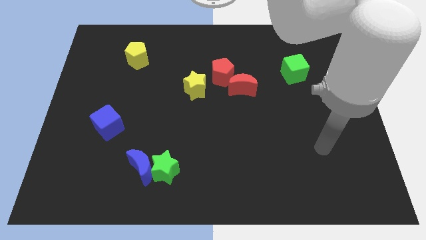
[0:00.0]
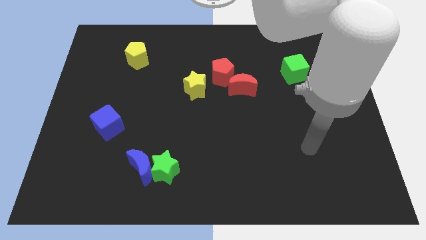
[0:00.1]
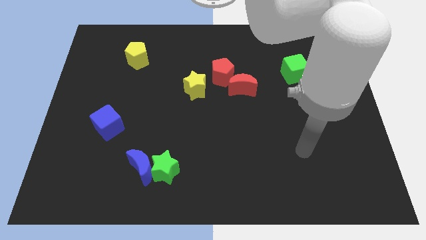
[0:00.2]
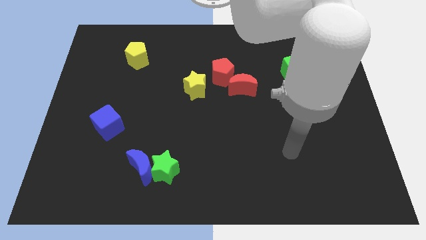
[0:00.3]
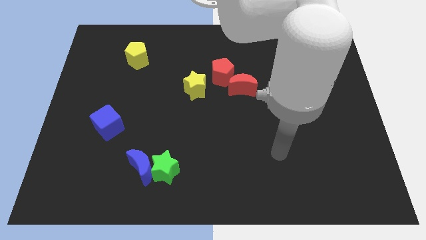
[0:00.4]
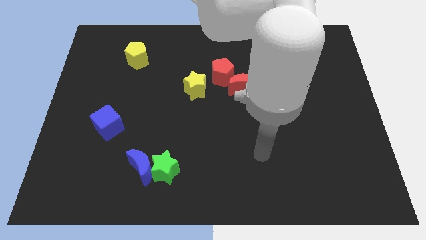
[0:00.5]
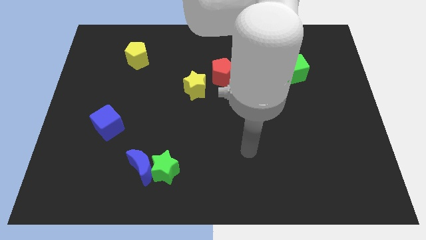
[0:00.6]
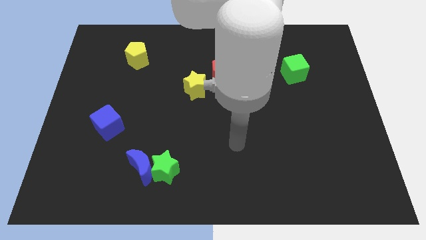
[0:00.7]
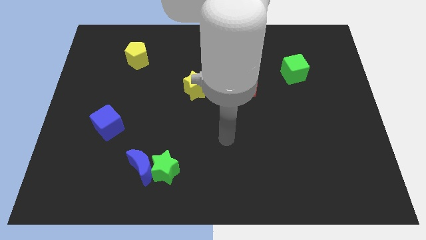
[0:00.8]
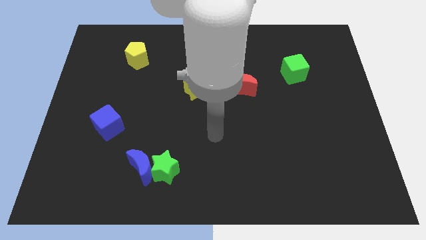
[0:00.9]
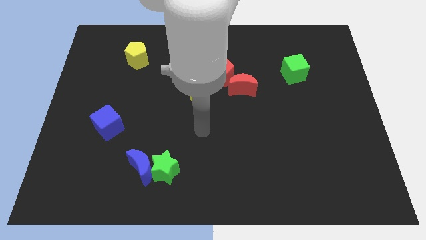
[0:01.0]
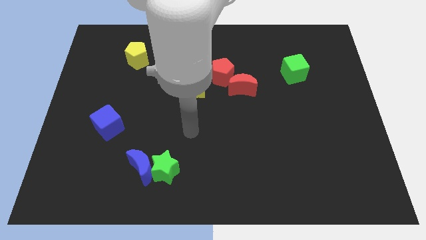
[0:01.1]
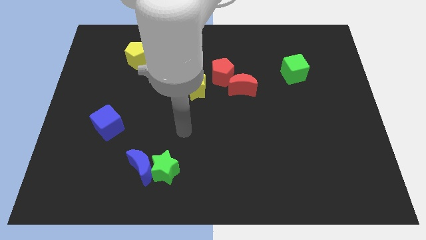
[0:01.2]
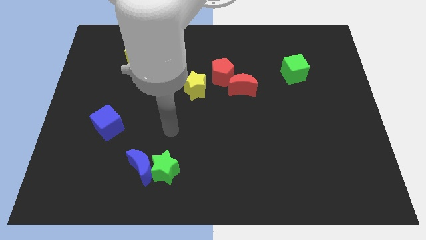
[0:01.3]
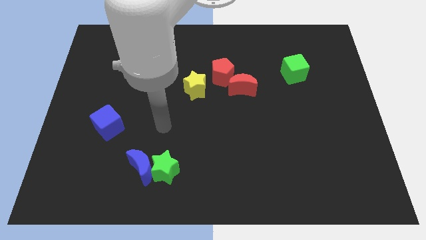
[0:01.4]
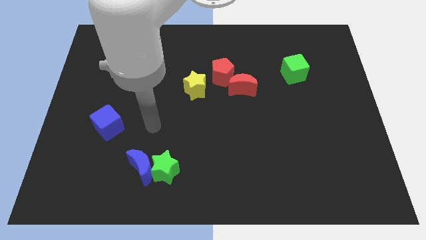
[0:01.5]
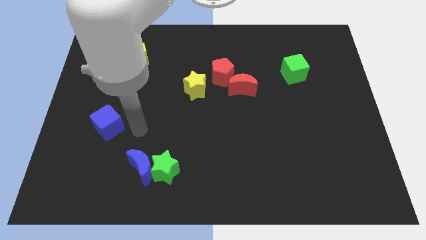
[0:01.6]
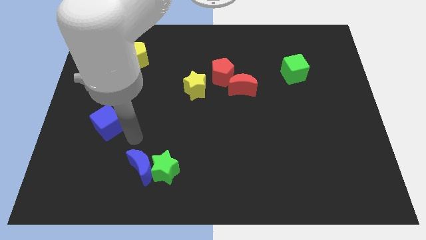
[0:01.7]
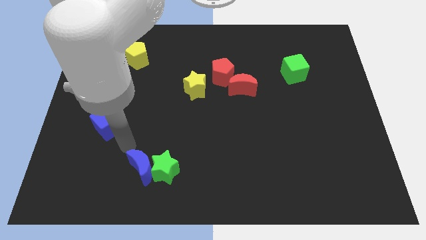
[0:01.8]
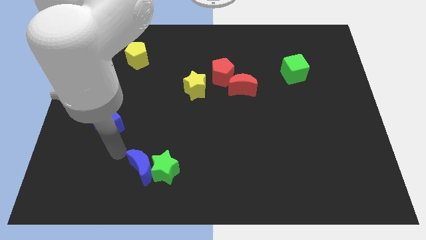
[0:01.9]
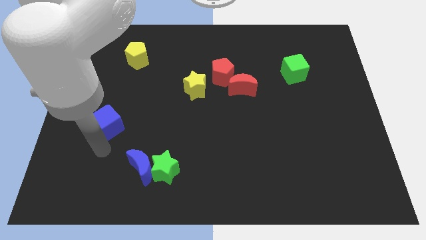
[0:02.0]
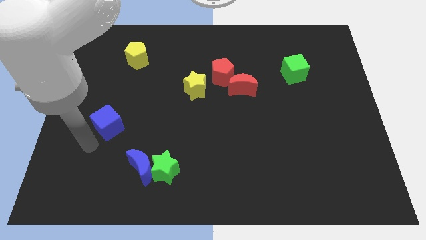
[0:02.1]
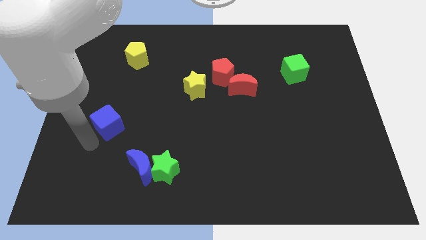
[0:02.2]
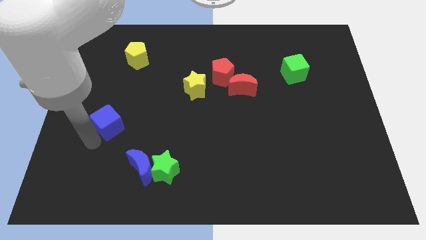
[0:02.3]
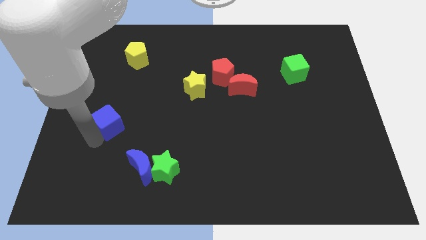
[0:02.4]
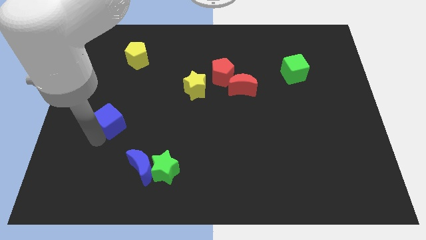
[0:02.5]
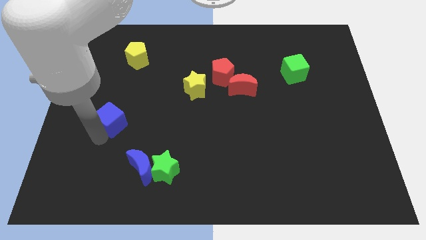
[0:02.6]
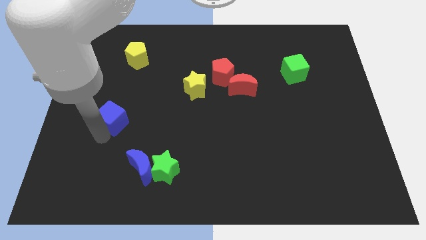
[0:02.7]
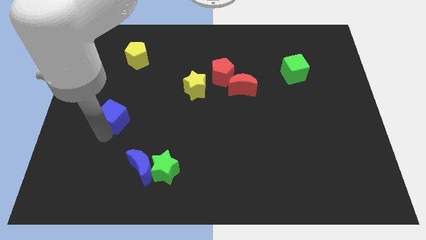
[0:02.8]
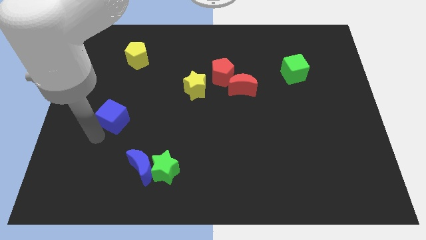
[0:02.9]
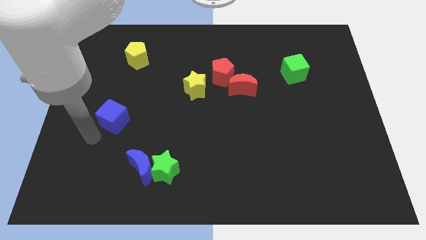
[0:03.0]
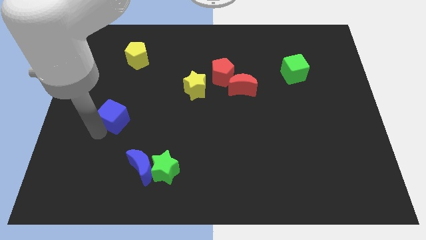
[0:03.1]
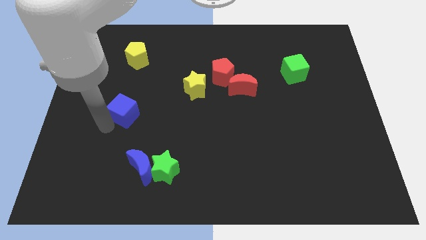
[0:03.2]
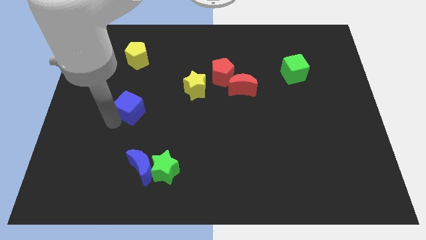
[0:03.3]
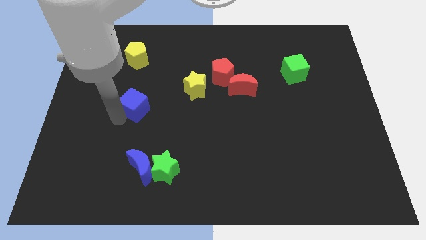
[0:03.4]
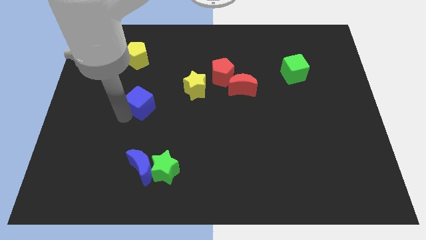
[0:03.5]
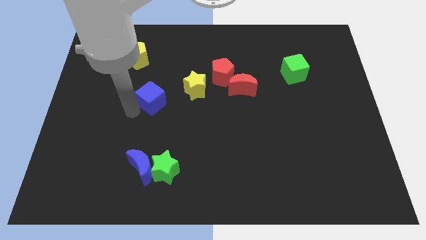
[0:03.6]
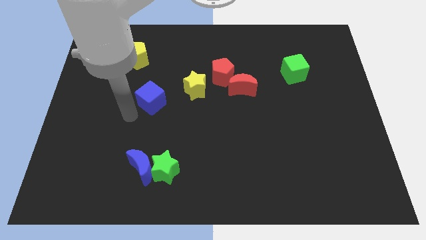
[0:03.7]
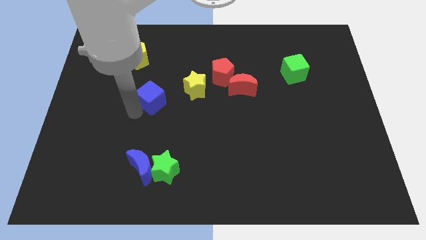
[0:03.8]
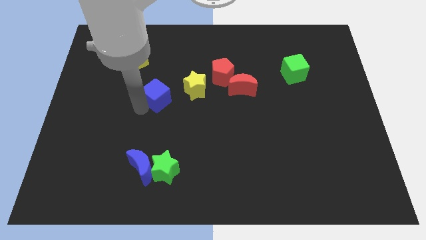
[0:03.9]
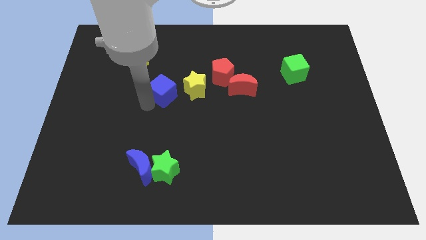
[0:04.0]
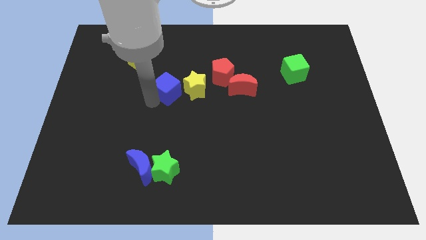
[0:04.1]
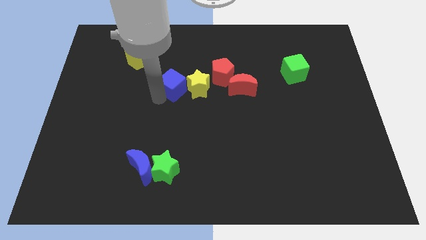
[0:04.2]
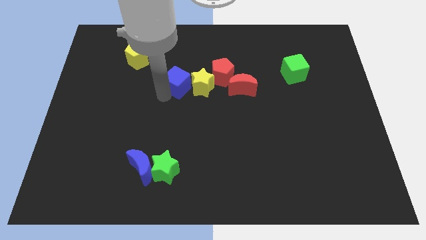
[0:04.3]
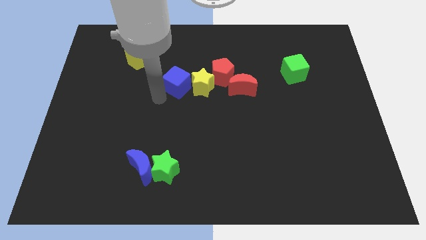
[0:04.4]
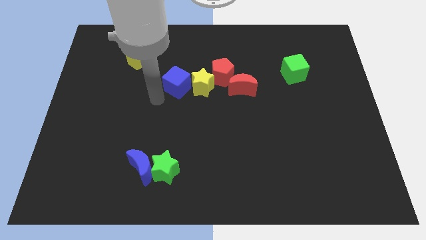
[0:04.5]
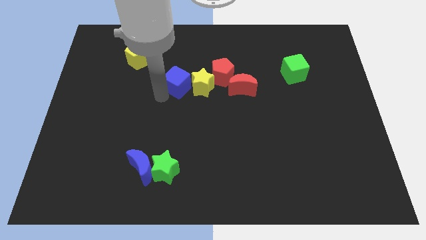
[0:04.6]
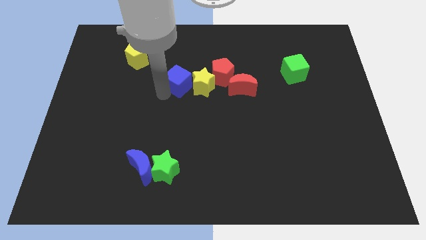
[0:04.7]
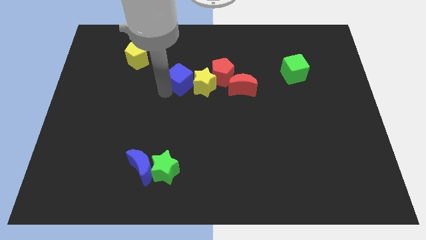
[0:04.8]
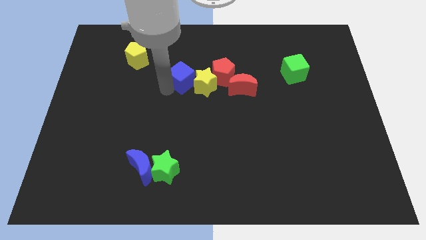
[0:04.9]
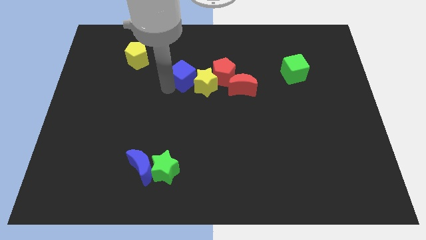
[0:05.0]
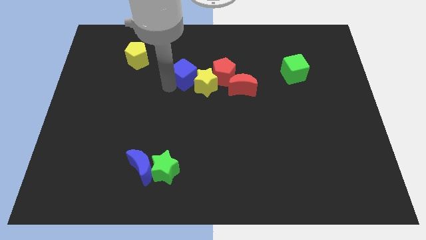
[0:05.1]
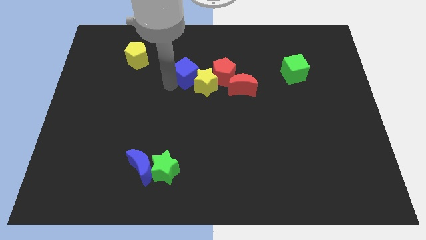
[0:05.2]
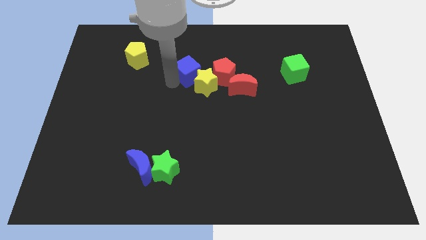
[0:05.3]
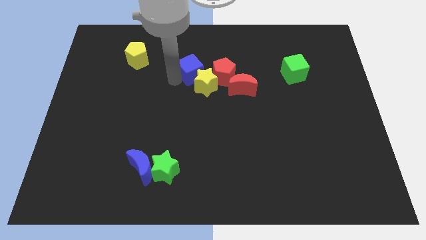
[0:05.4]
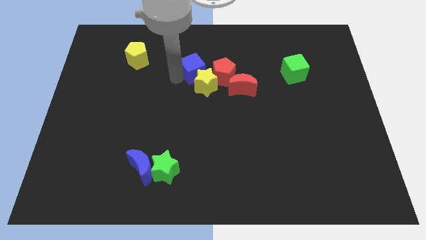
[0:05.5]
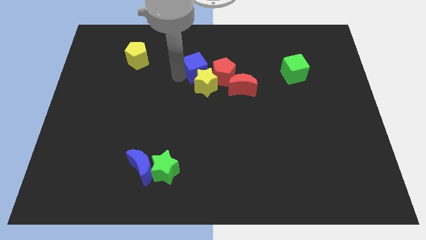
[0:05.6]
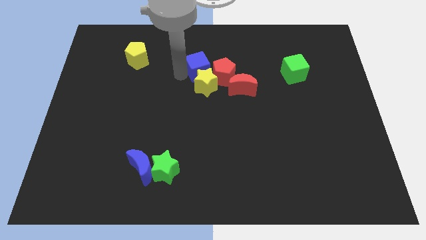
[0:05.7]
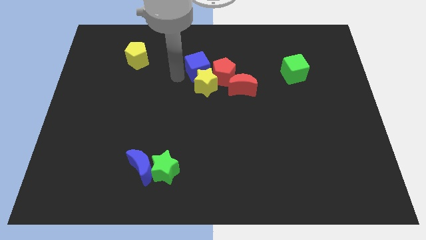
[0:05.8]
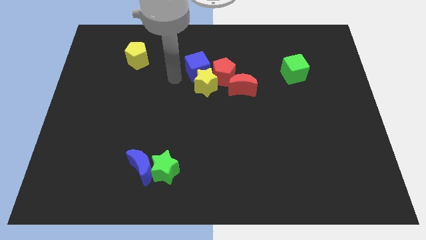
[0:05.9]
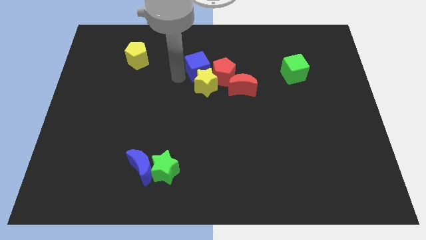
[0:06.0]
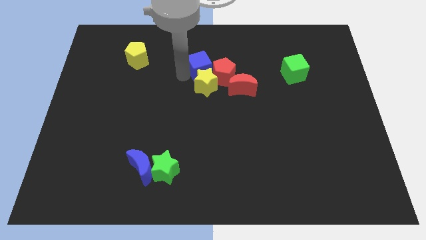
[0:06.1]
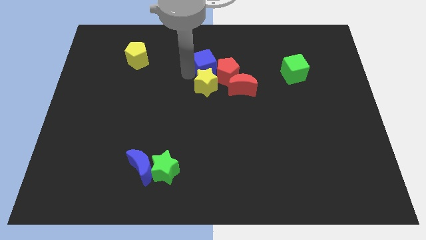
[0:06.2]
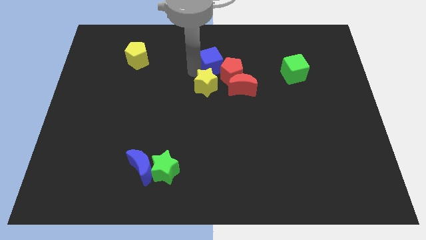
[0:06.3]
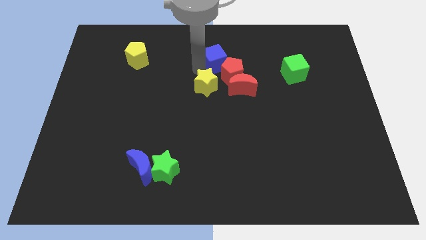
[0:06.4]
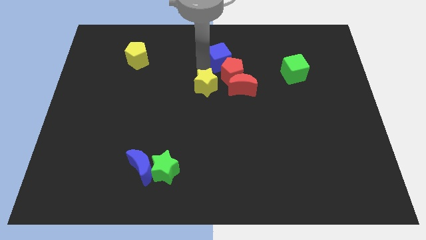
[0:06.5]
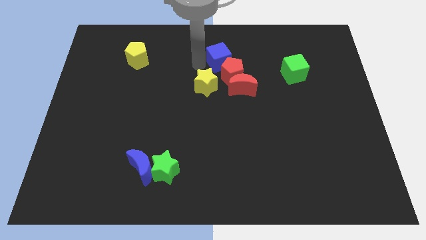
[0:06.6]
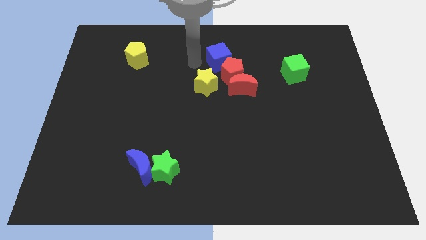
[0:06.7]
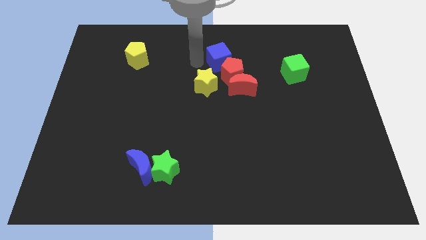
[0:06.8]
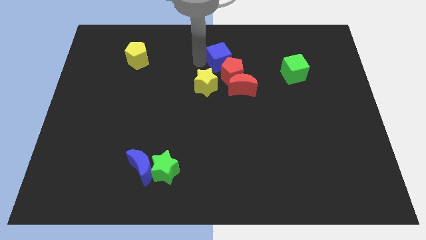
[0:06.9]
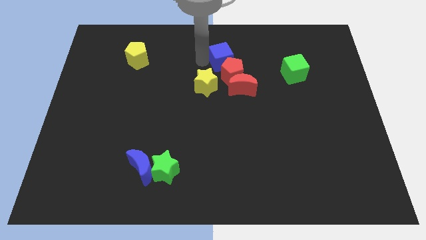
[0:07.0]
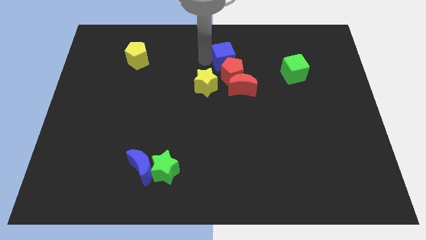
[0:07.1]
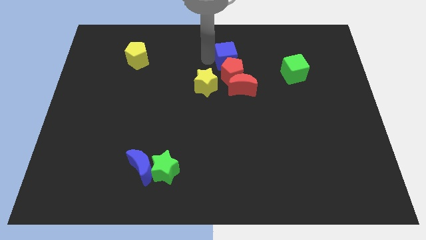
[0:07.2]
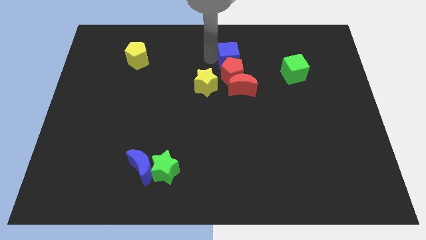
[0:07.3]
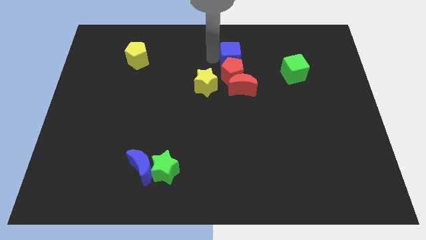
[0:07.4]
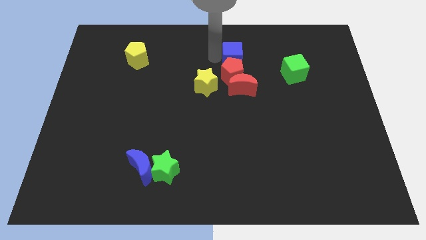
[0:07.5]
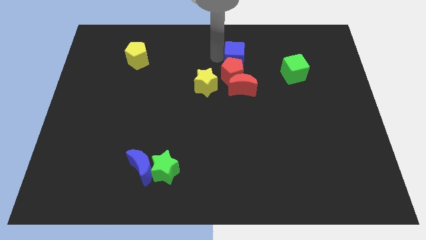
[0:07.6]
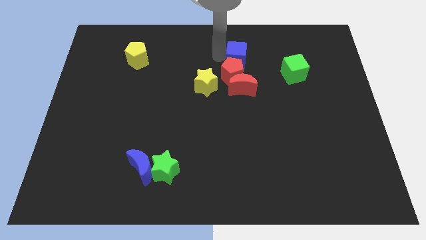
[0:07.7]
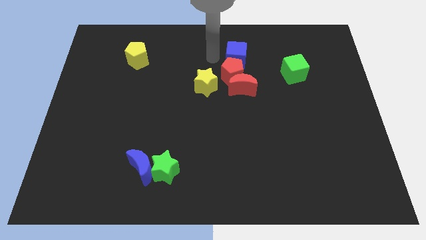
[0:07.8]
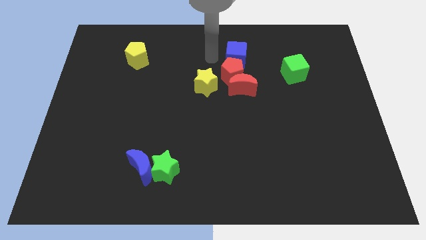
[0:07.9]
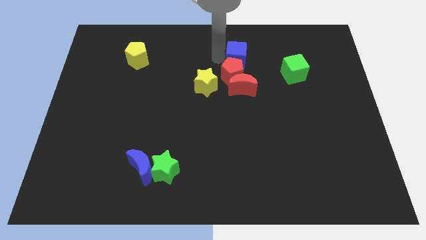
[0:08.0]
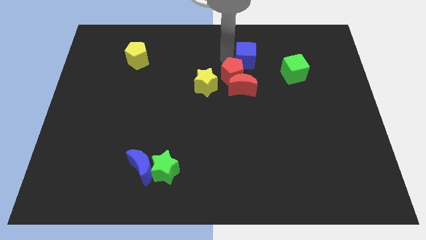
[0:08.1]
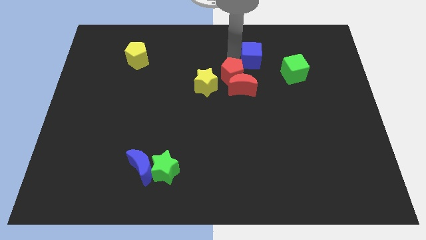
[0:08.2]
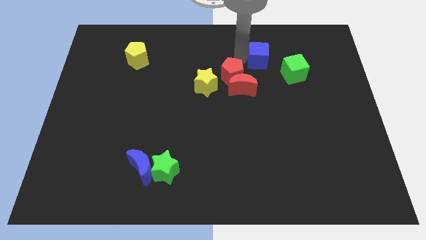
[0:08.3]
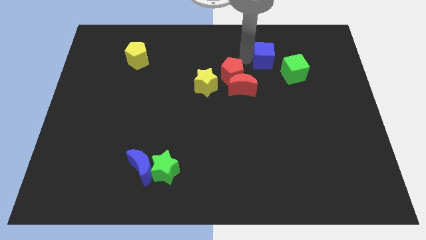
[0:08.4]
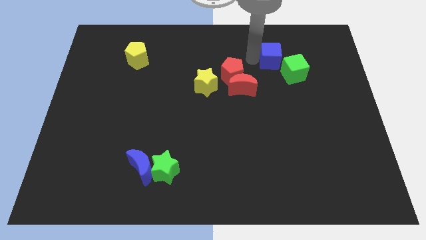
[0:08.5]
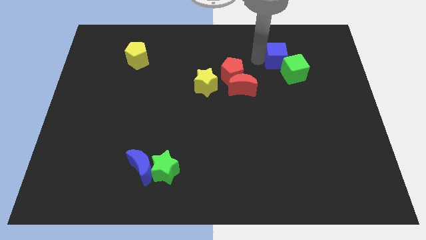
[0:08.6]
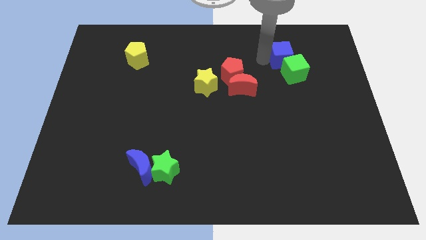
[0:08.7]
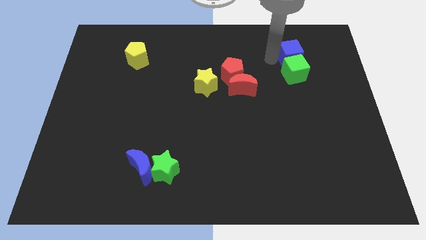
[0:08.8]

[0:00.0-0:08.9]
push the blue cube diagonally up and to the right of the green cube
